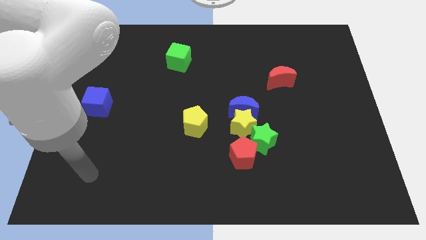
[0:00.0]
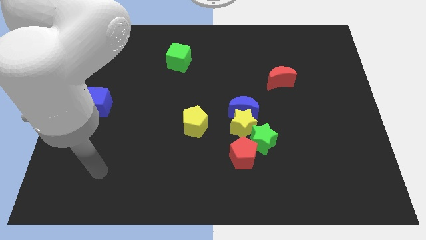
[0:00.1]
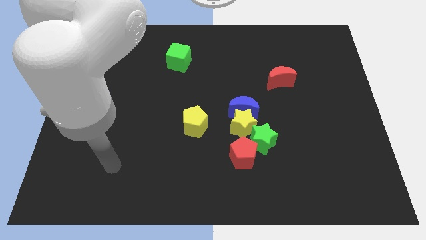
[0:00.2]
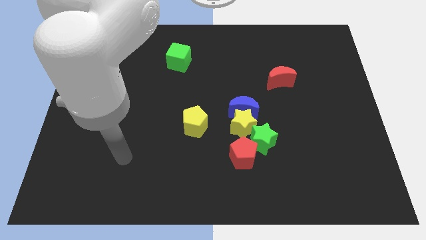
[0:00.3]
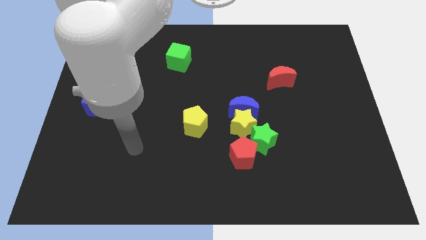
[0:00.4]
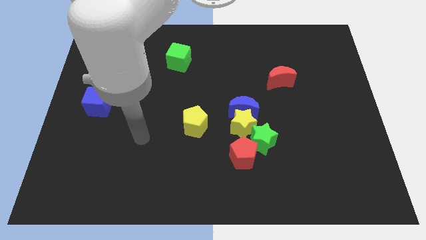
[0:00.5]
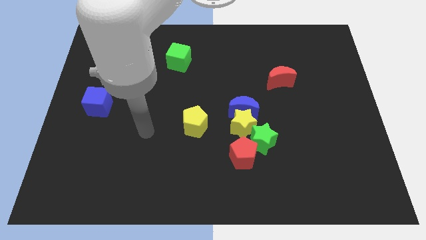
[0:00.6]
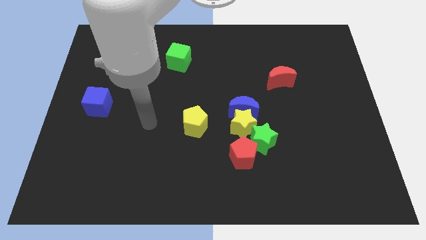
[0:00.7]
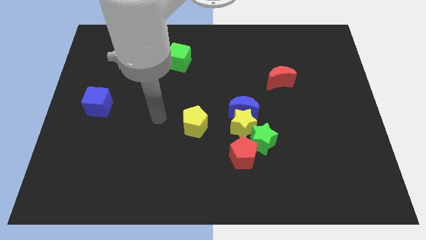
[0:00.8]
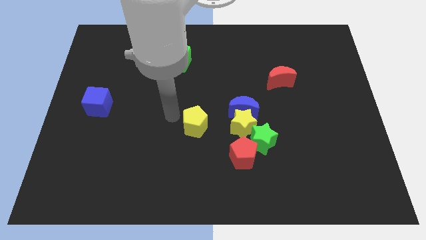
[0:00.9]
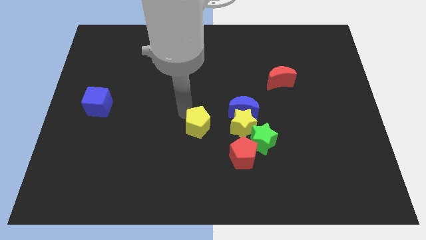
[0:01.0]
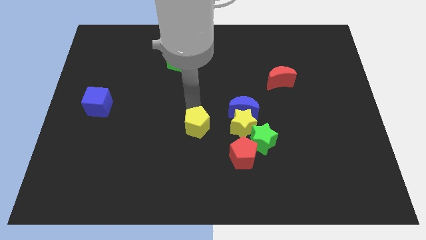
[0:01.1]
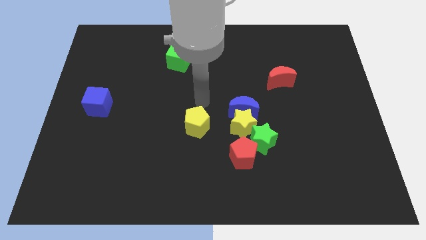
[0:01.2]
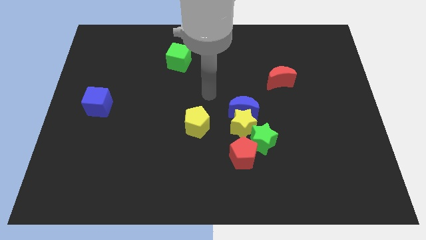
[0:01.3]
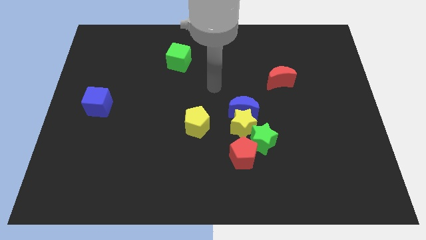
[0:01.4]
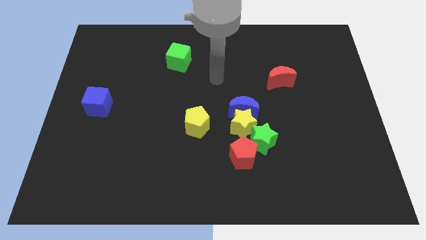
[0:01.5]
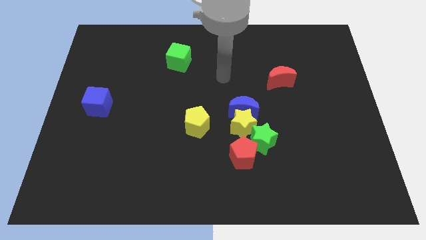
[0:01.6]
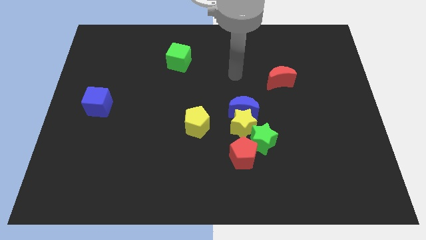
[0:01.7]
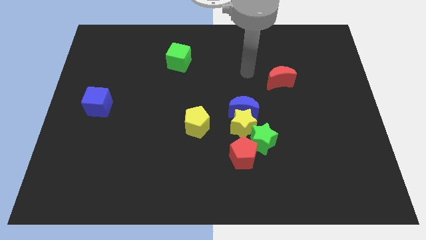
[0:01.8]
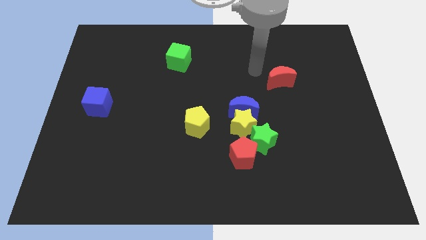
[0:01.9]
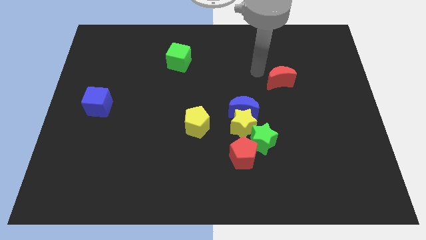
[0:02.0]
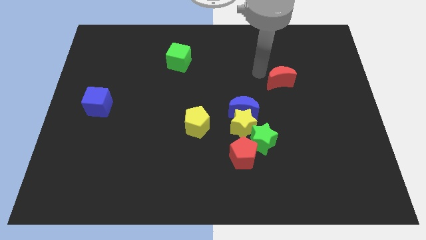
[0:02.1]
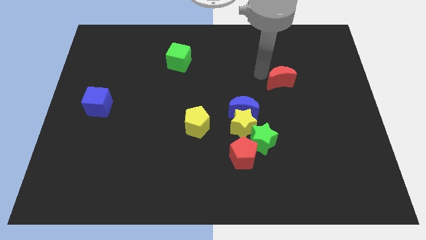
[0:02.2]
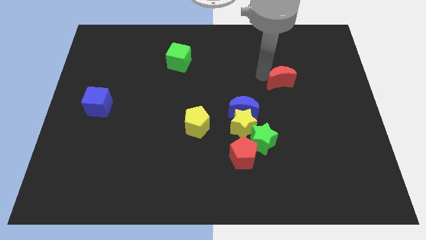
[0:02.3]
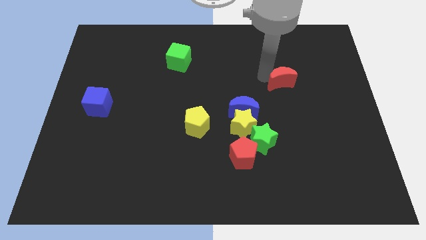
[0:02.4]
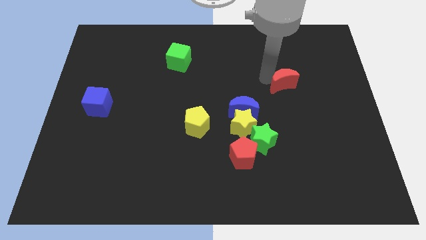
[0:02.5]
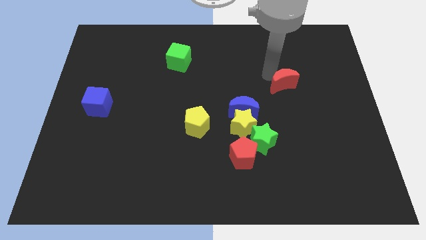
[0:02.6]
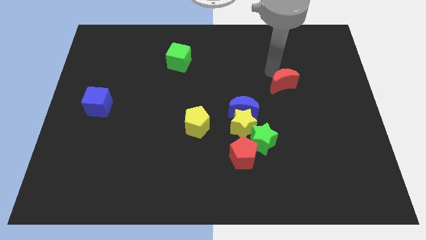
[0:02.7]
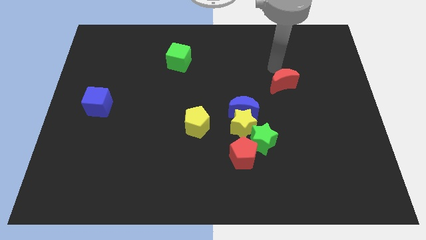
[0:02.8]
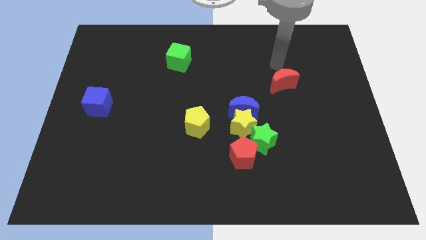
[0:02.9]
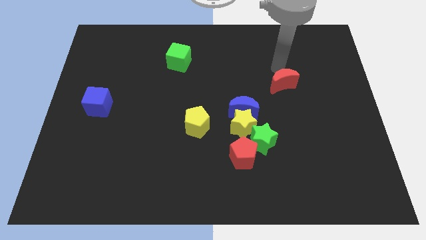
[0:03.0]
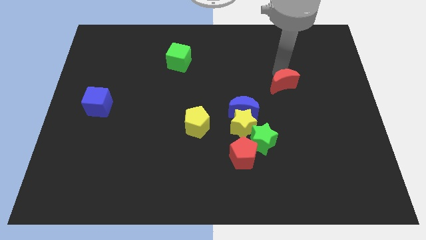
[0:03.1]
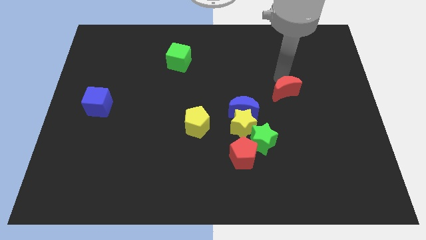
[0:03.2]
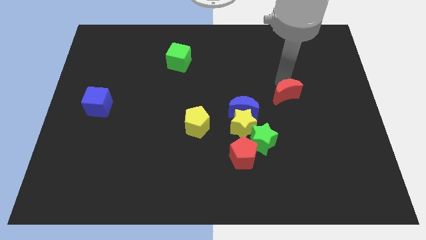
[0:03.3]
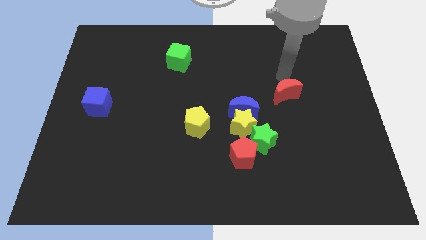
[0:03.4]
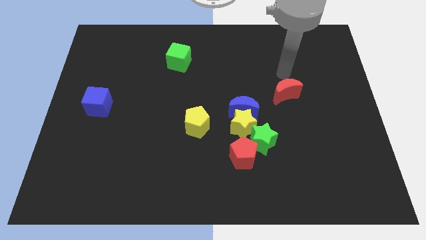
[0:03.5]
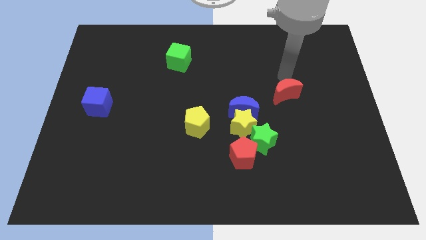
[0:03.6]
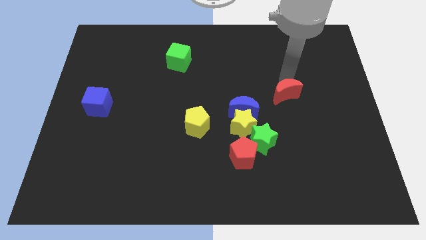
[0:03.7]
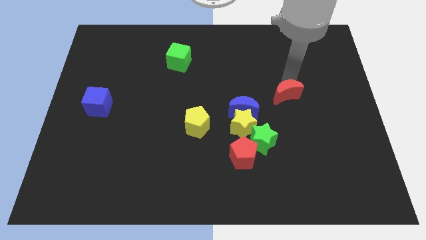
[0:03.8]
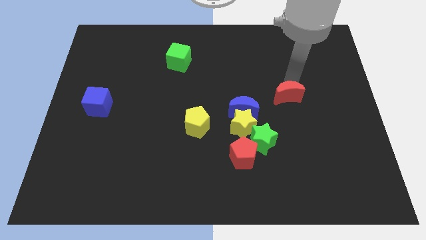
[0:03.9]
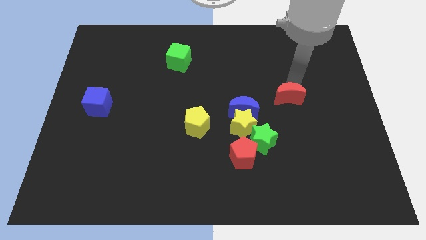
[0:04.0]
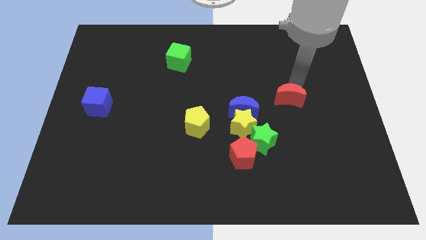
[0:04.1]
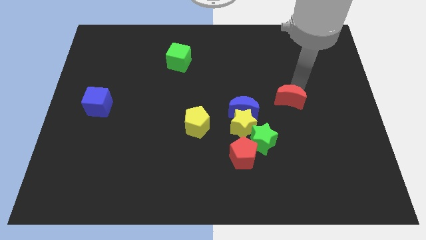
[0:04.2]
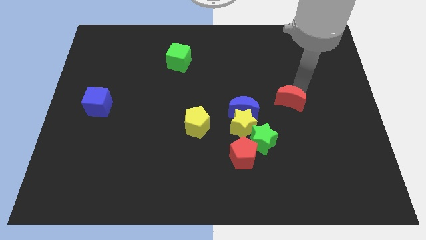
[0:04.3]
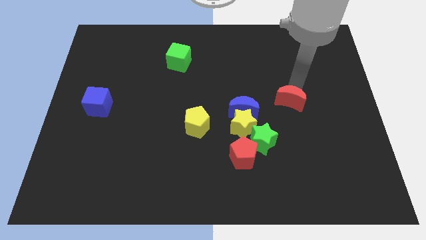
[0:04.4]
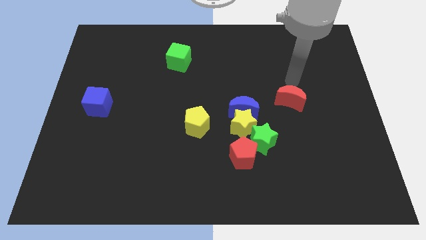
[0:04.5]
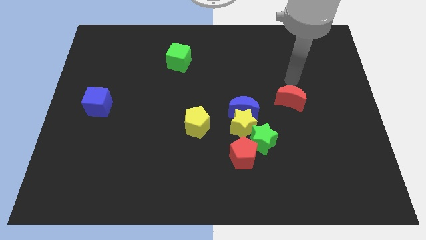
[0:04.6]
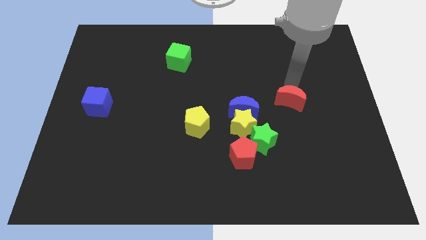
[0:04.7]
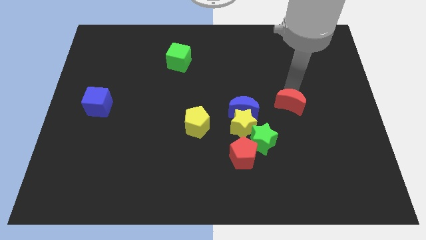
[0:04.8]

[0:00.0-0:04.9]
push the red moon somewhat downwards

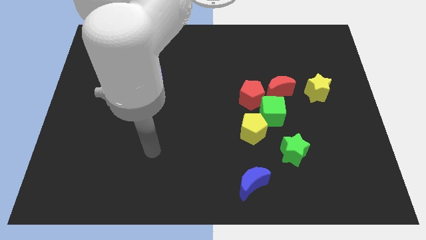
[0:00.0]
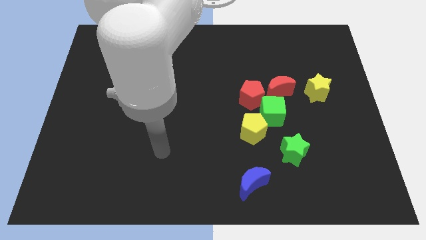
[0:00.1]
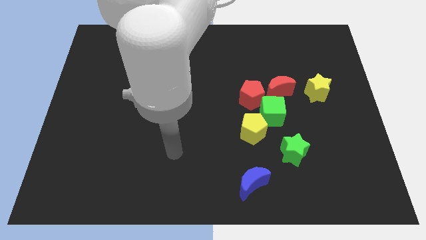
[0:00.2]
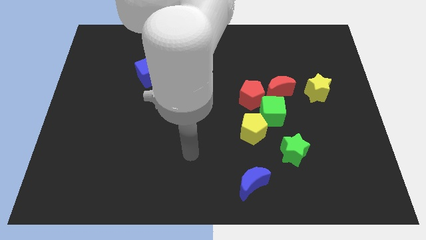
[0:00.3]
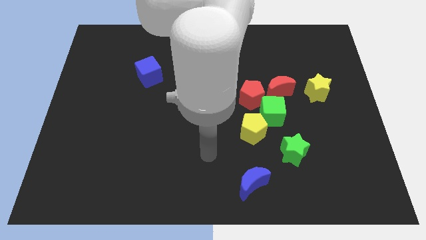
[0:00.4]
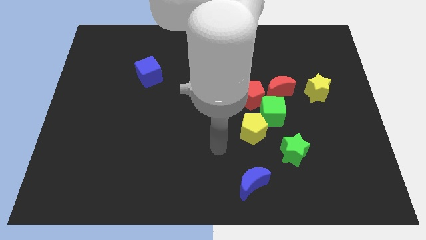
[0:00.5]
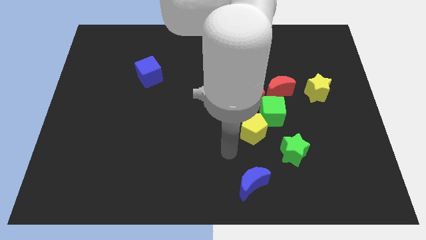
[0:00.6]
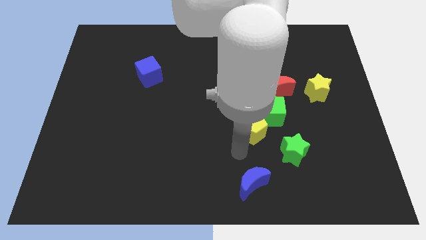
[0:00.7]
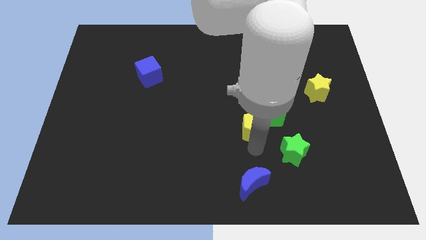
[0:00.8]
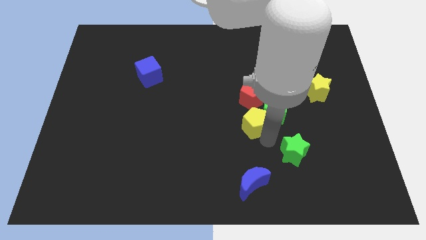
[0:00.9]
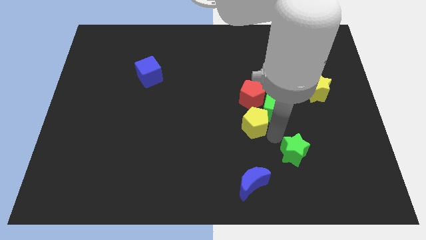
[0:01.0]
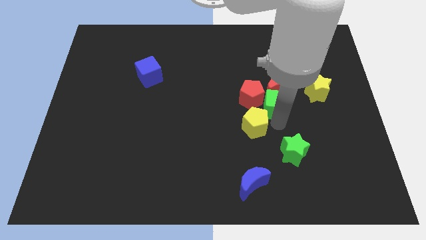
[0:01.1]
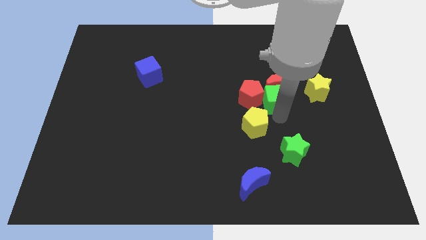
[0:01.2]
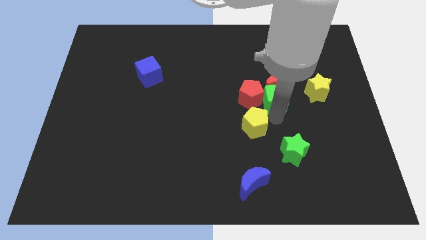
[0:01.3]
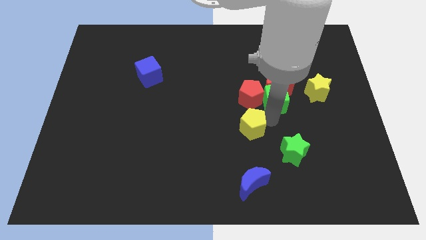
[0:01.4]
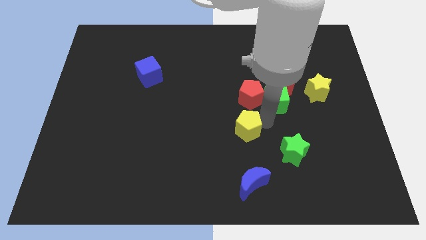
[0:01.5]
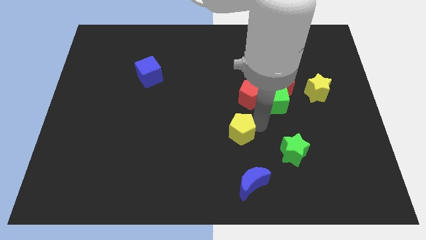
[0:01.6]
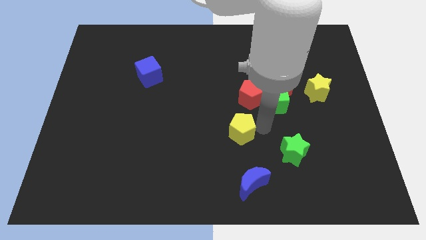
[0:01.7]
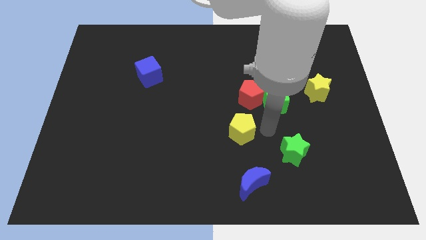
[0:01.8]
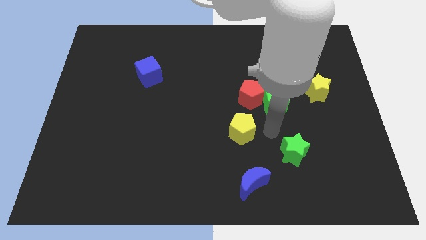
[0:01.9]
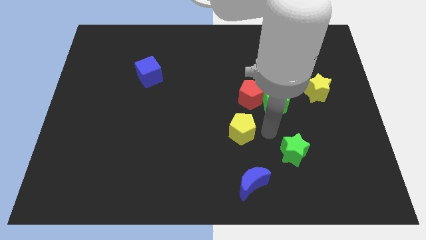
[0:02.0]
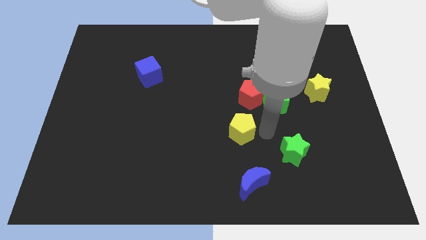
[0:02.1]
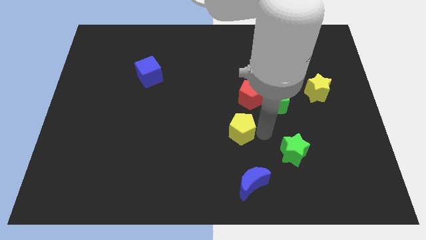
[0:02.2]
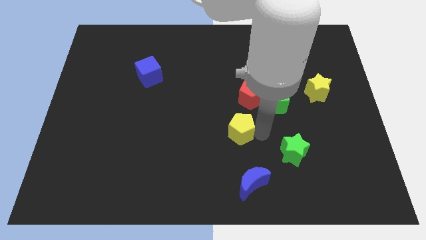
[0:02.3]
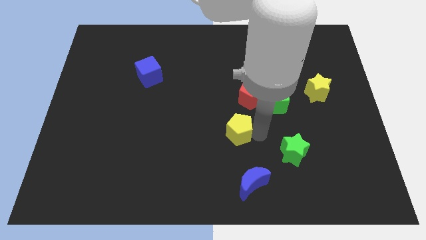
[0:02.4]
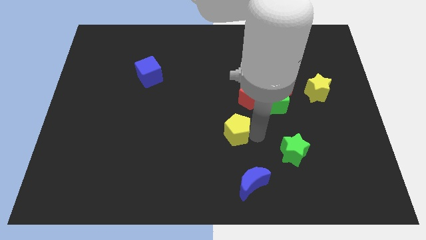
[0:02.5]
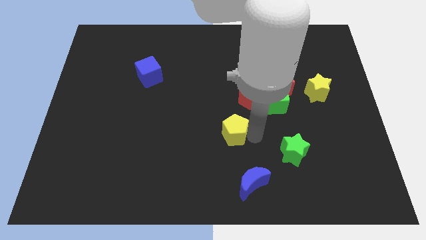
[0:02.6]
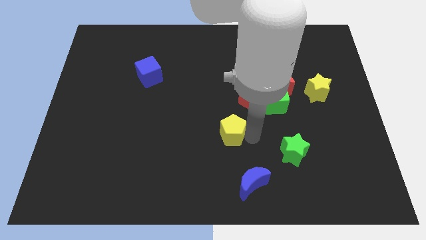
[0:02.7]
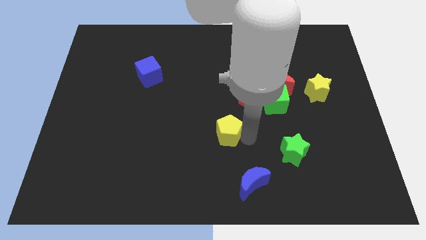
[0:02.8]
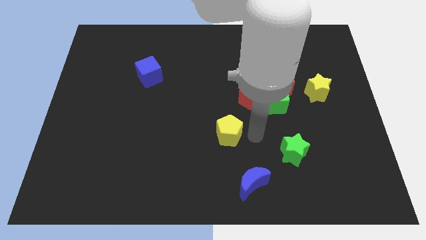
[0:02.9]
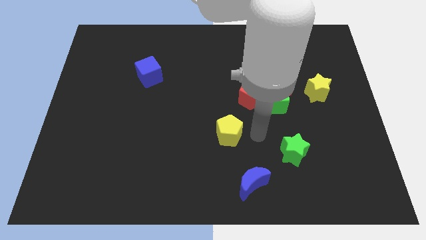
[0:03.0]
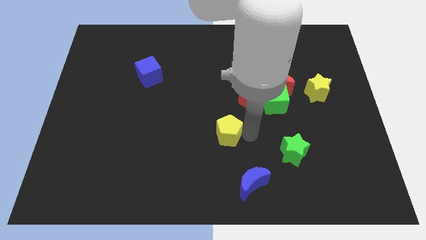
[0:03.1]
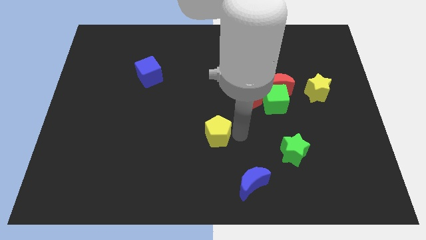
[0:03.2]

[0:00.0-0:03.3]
move the yellow pentagon a little to the left

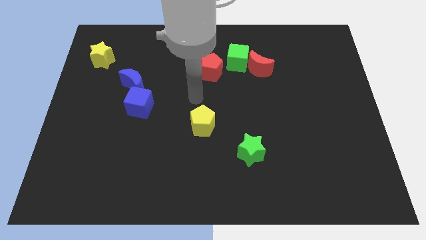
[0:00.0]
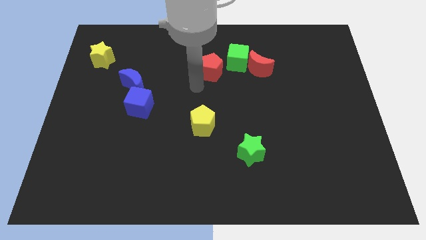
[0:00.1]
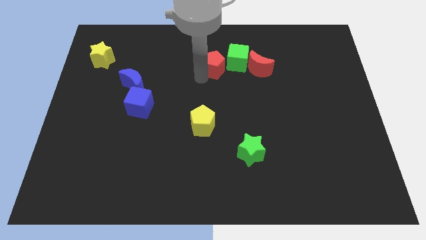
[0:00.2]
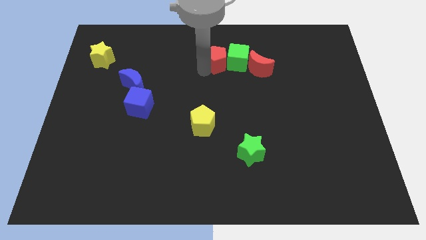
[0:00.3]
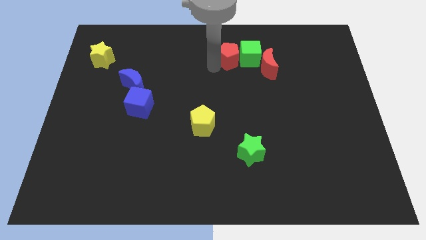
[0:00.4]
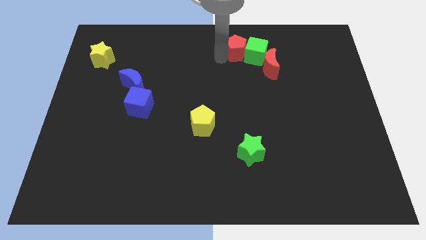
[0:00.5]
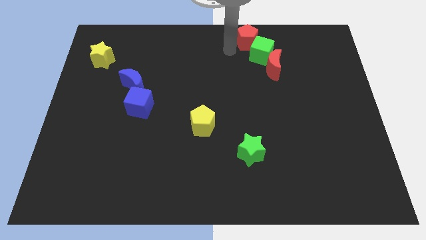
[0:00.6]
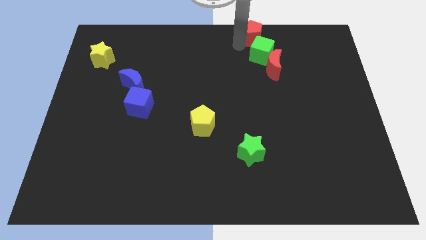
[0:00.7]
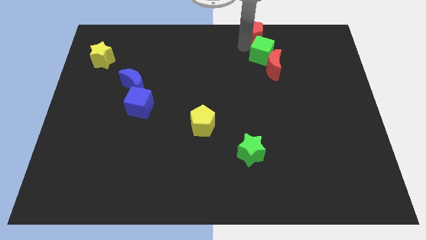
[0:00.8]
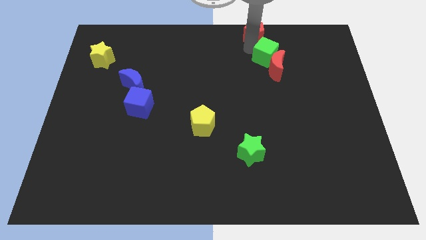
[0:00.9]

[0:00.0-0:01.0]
slightly slide the green cube right
